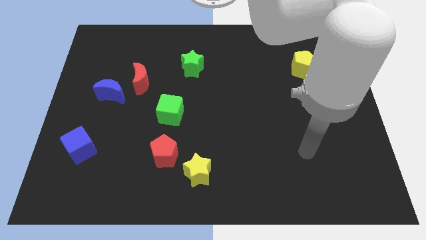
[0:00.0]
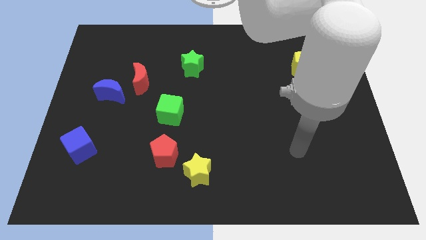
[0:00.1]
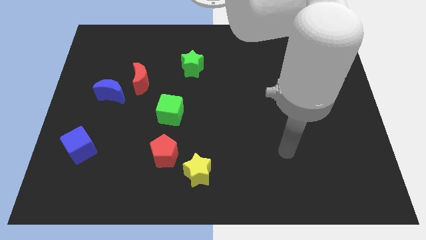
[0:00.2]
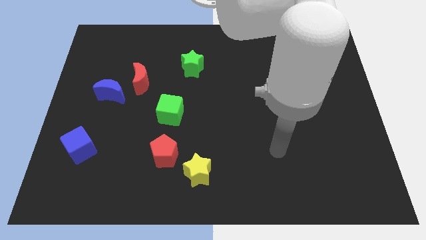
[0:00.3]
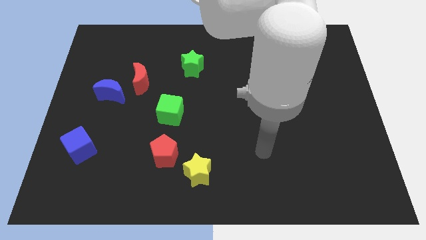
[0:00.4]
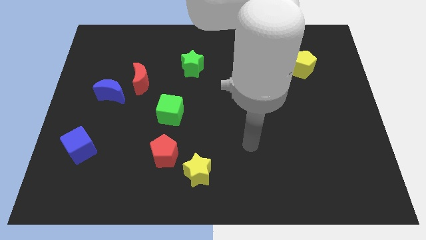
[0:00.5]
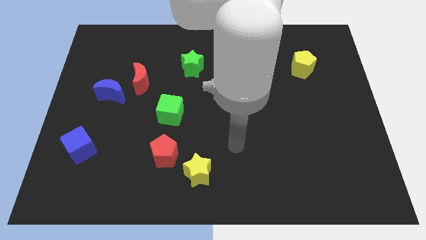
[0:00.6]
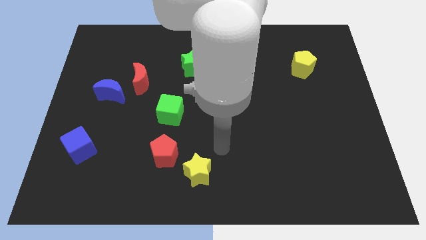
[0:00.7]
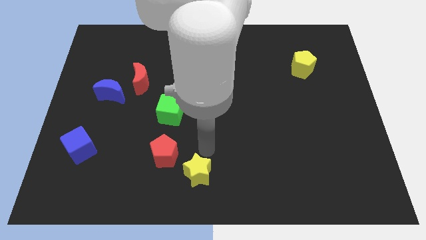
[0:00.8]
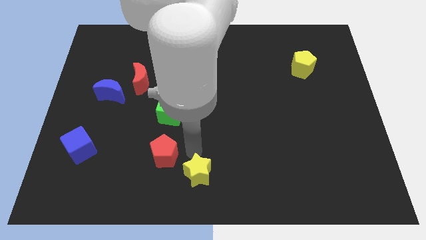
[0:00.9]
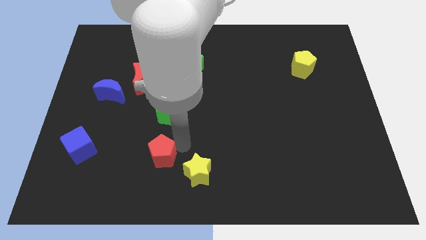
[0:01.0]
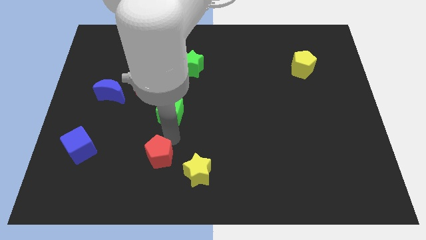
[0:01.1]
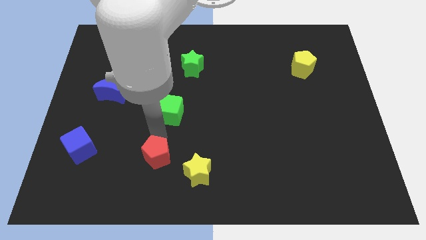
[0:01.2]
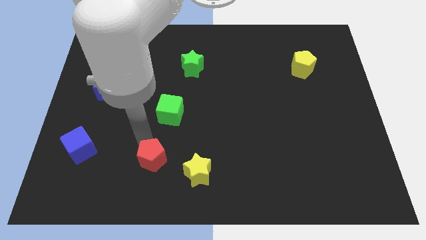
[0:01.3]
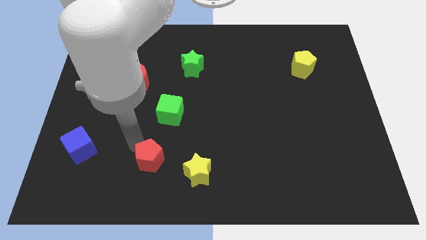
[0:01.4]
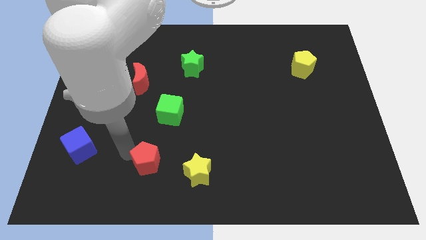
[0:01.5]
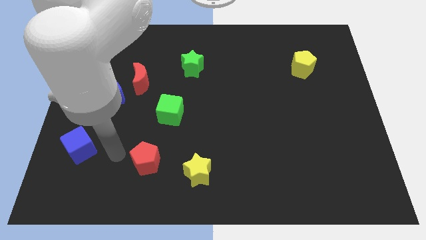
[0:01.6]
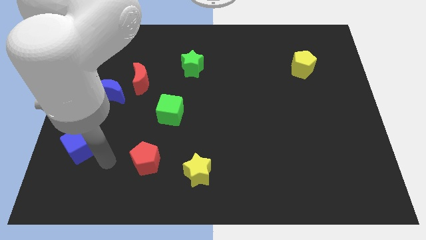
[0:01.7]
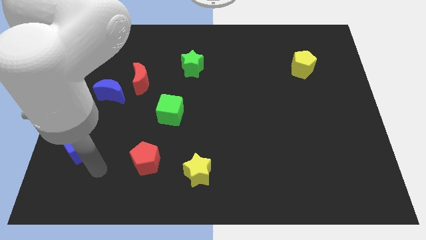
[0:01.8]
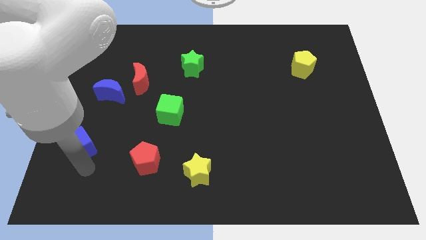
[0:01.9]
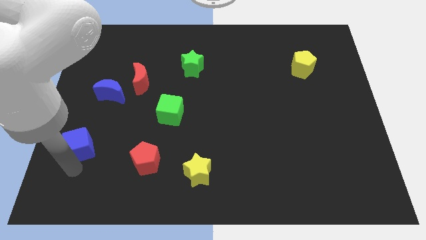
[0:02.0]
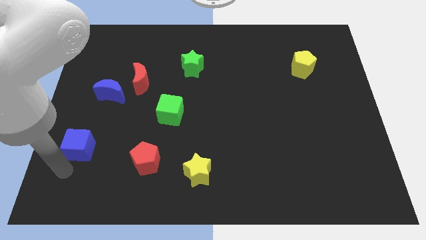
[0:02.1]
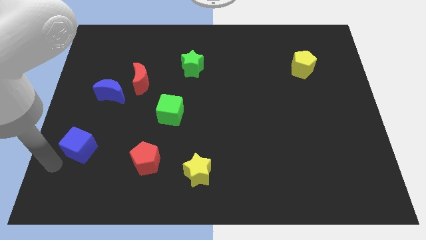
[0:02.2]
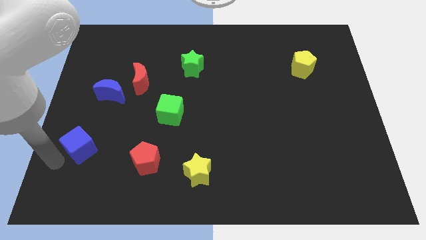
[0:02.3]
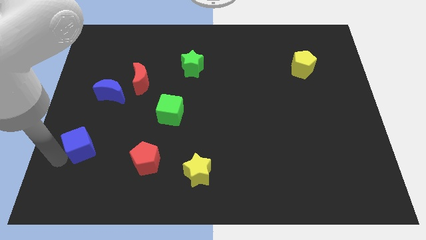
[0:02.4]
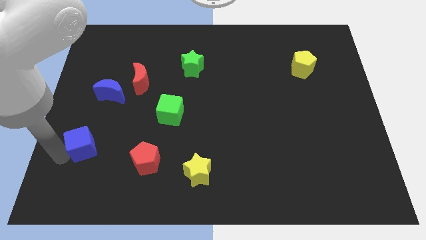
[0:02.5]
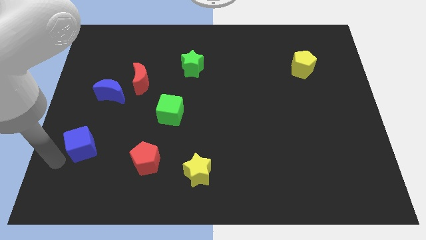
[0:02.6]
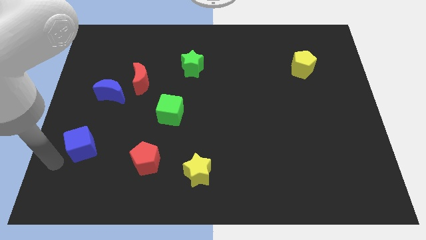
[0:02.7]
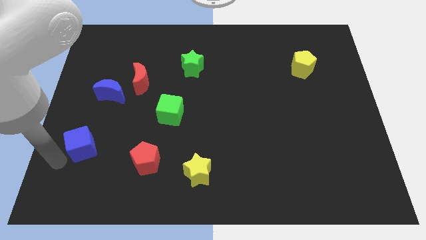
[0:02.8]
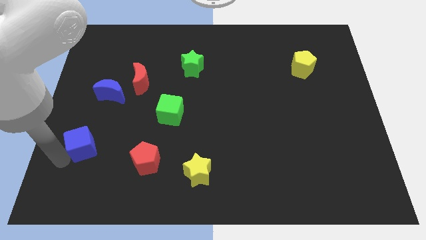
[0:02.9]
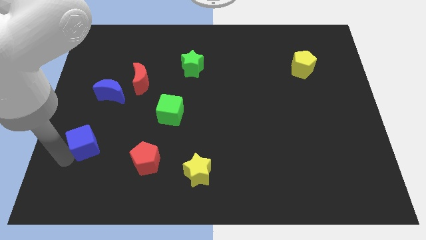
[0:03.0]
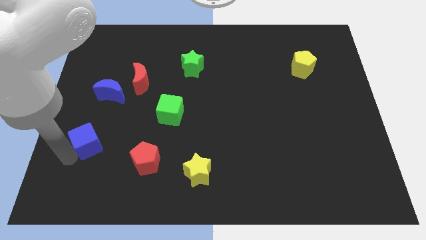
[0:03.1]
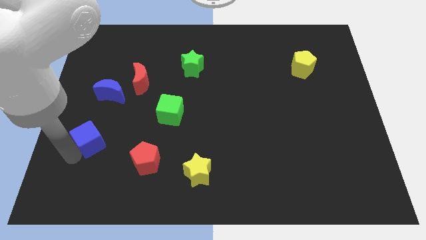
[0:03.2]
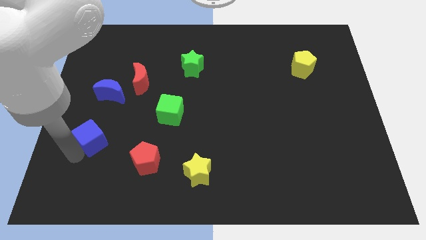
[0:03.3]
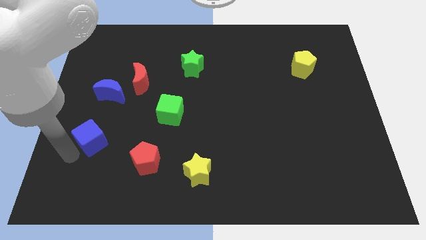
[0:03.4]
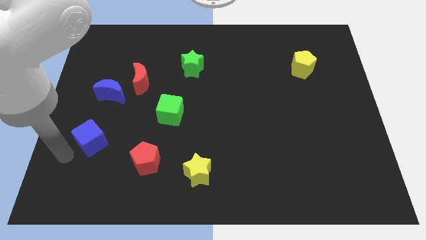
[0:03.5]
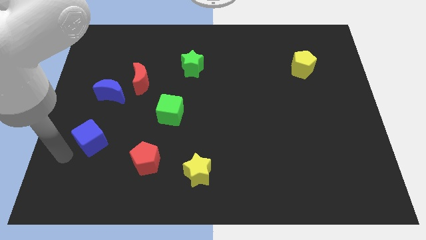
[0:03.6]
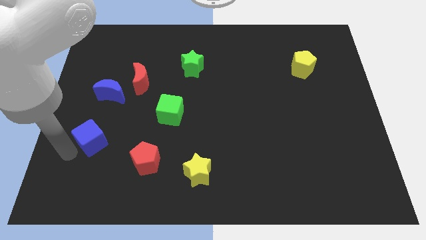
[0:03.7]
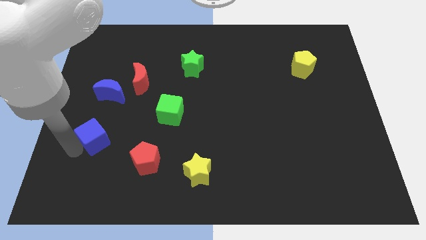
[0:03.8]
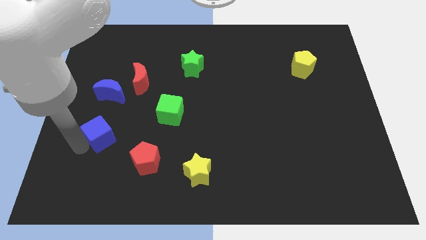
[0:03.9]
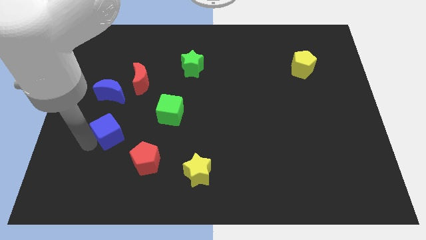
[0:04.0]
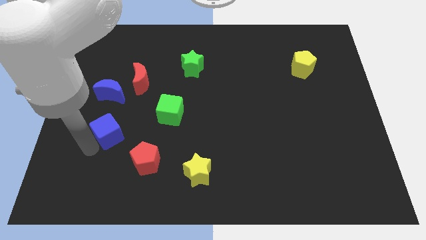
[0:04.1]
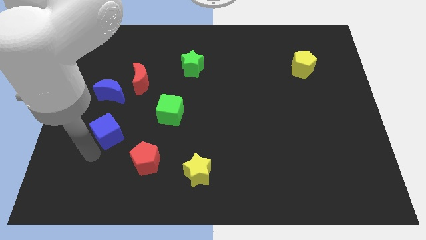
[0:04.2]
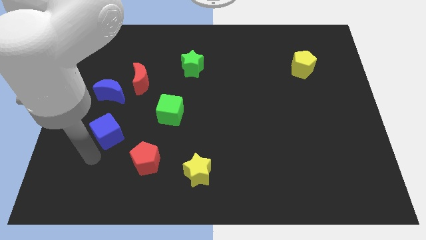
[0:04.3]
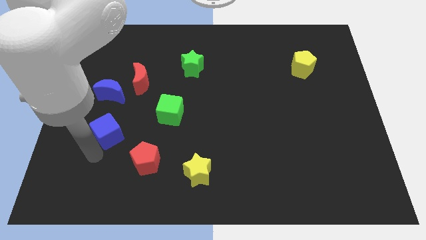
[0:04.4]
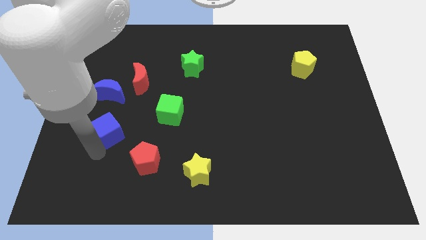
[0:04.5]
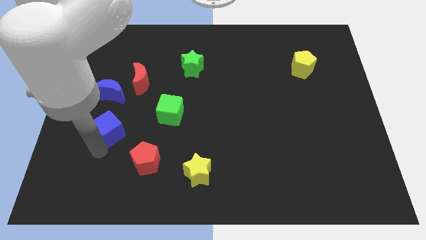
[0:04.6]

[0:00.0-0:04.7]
slide the blue cube a little upwards and to the right

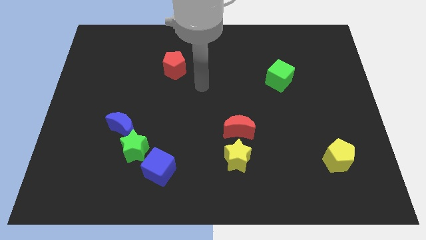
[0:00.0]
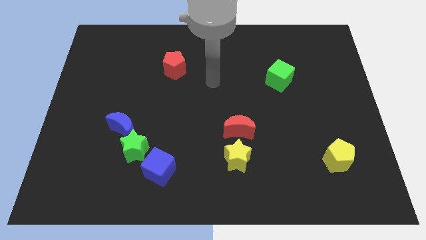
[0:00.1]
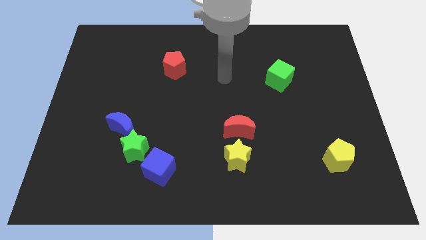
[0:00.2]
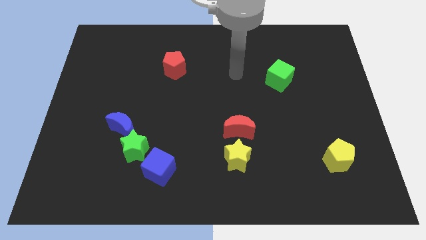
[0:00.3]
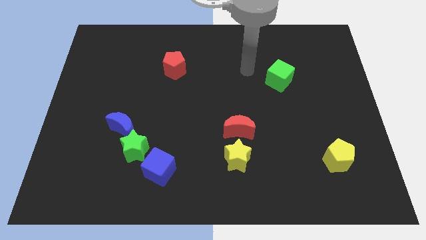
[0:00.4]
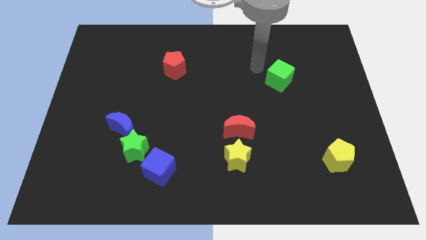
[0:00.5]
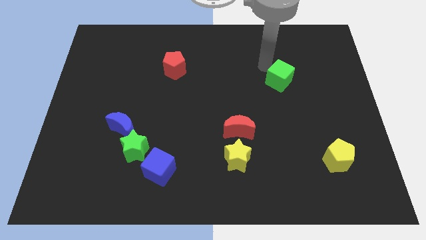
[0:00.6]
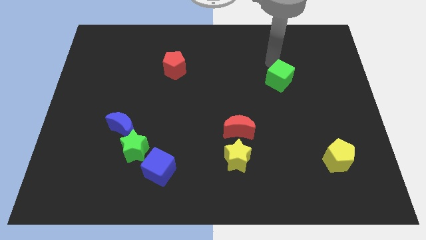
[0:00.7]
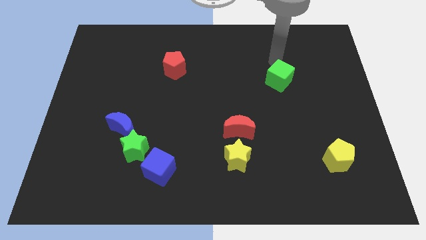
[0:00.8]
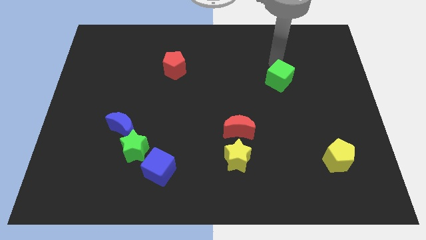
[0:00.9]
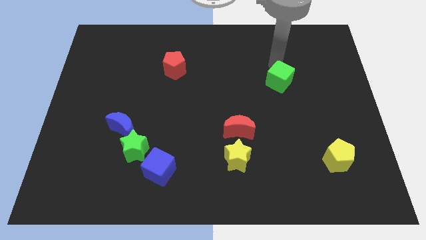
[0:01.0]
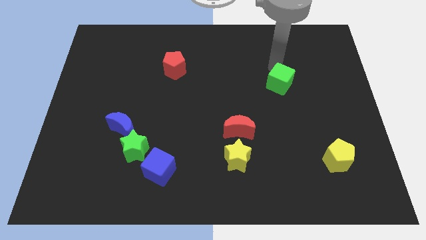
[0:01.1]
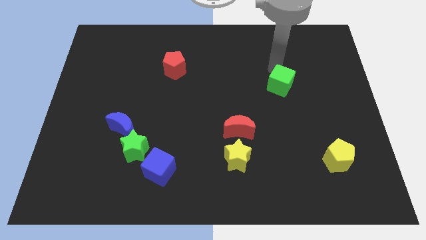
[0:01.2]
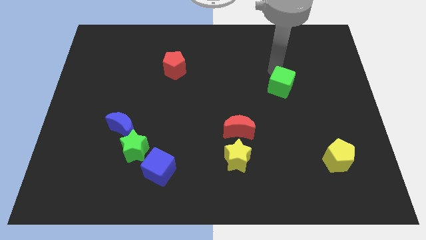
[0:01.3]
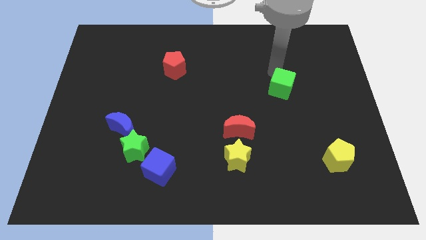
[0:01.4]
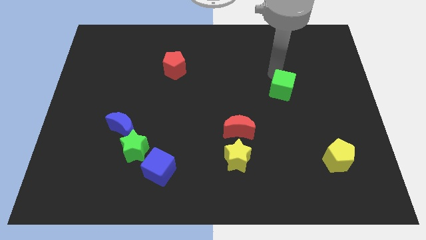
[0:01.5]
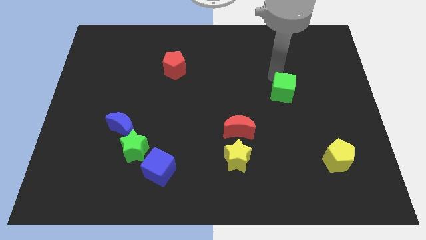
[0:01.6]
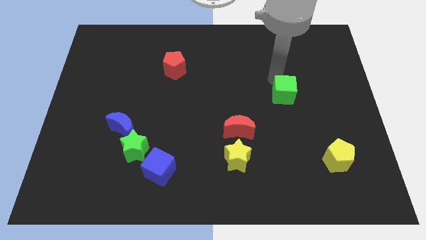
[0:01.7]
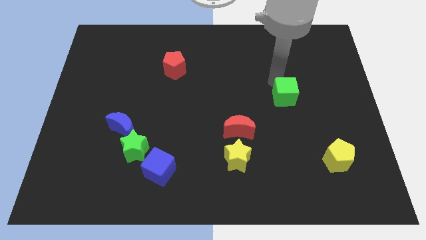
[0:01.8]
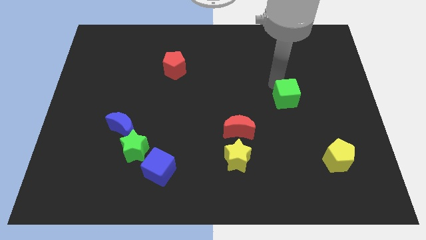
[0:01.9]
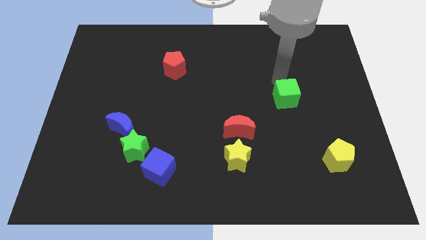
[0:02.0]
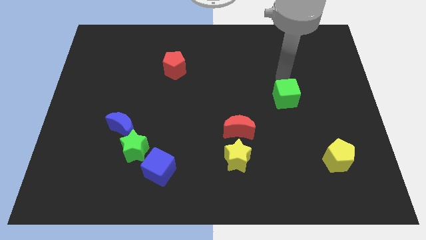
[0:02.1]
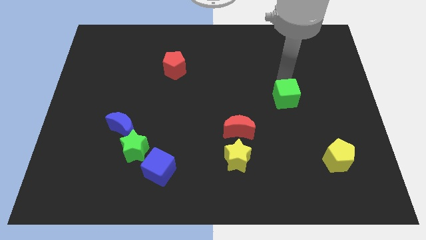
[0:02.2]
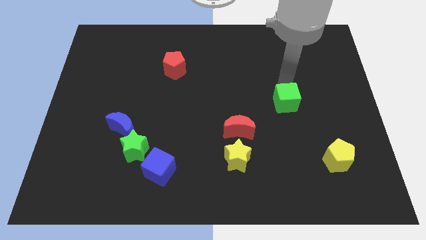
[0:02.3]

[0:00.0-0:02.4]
slide the green cube down somewhat

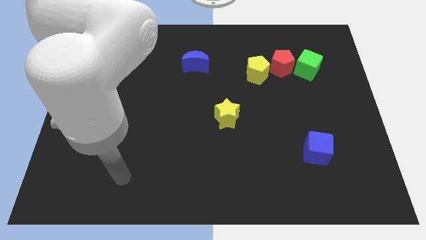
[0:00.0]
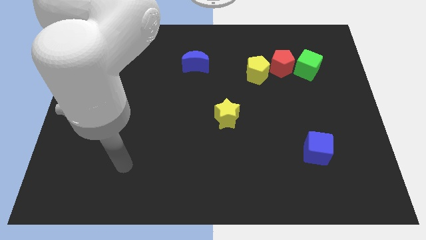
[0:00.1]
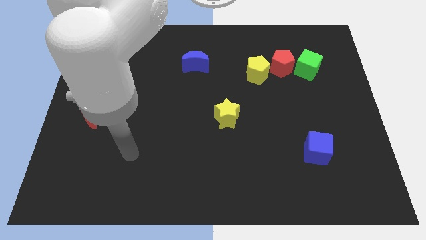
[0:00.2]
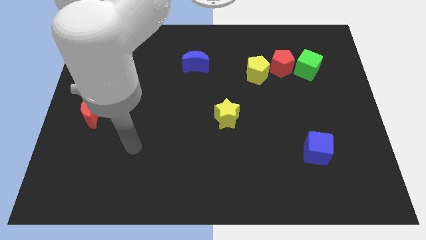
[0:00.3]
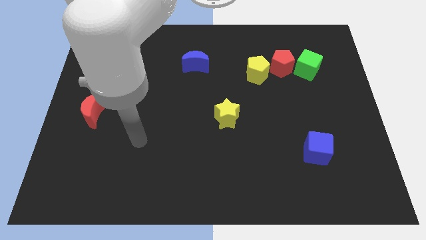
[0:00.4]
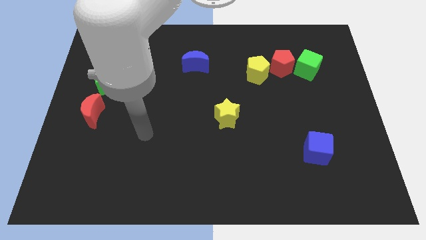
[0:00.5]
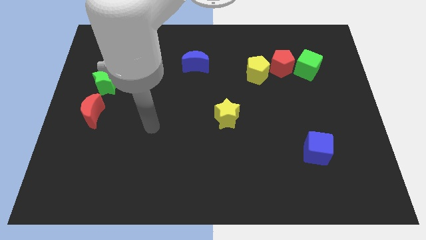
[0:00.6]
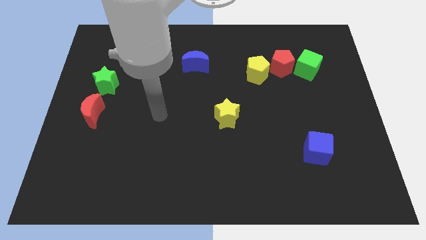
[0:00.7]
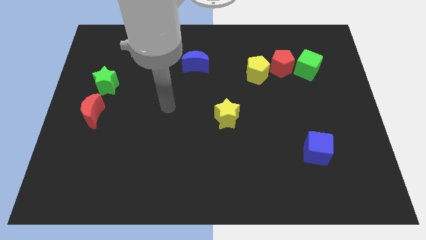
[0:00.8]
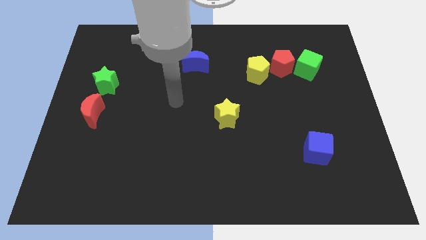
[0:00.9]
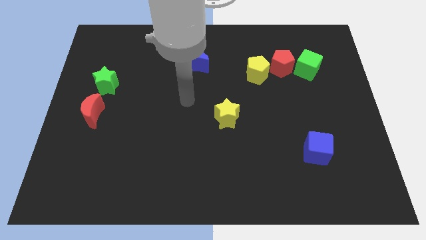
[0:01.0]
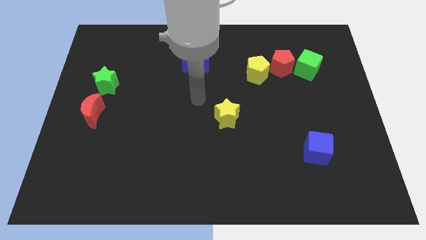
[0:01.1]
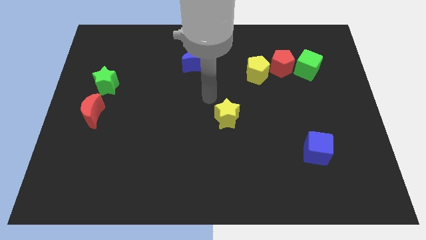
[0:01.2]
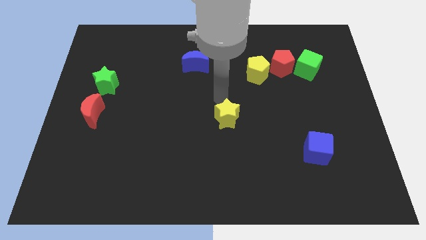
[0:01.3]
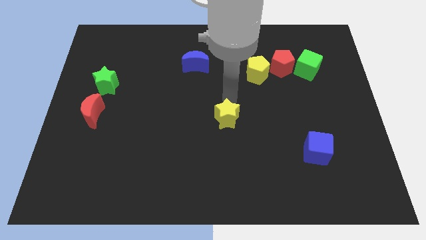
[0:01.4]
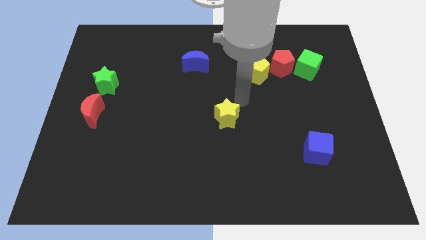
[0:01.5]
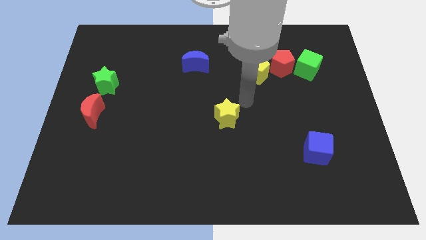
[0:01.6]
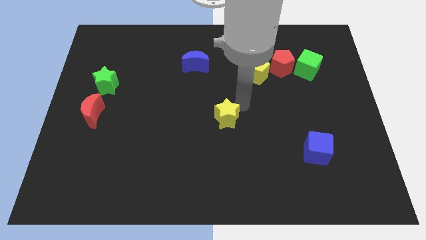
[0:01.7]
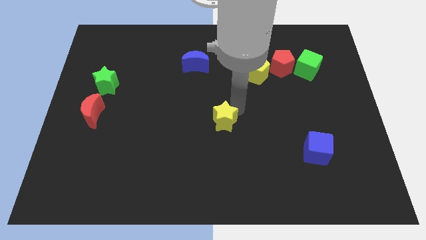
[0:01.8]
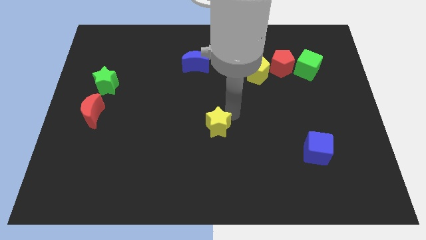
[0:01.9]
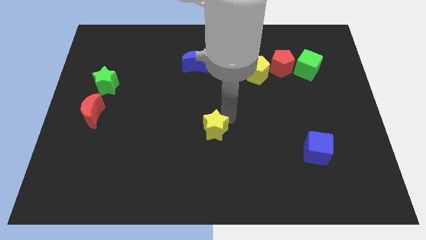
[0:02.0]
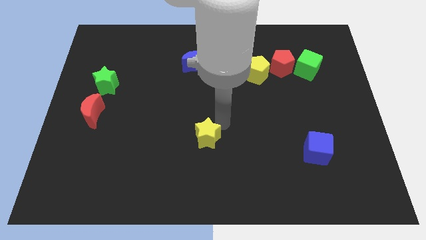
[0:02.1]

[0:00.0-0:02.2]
slightly push the yellow star down and then left
